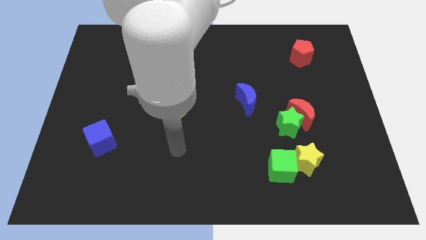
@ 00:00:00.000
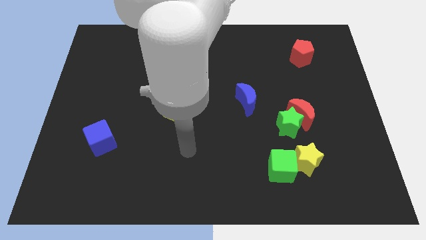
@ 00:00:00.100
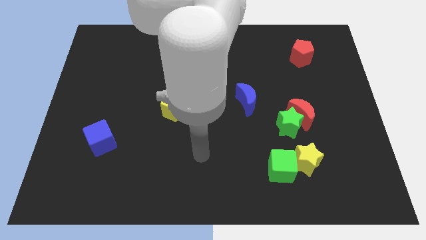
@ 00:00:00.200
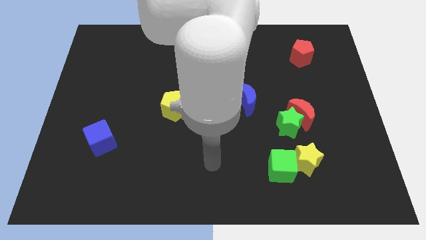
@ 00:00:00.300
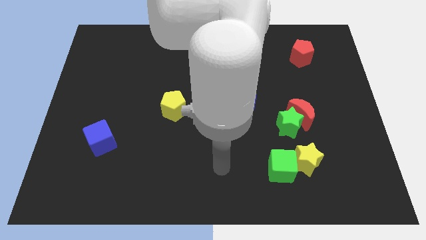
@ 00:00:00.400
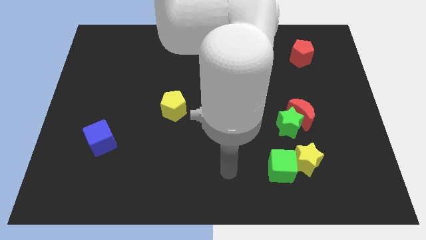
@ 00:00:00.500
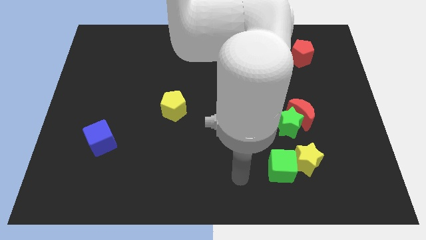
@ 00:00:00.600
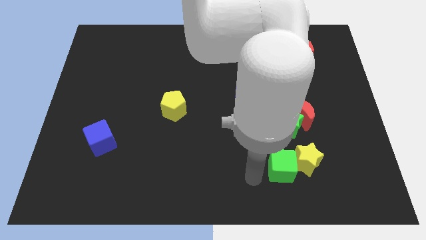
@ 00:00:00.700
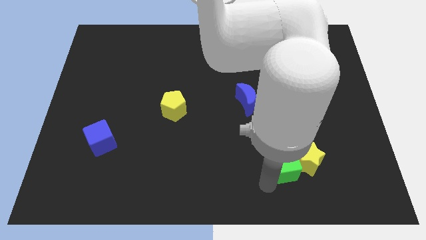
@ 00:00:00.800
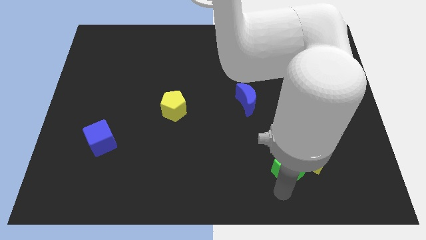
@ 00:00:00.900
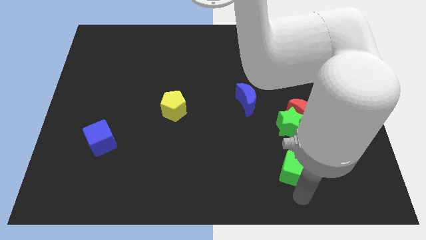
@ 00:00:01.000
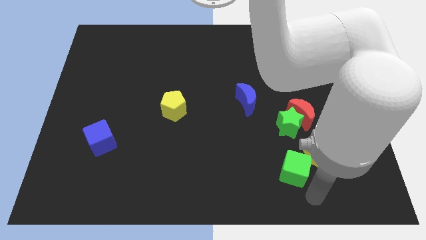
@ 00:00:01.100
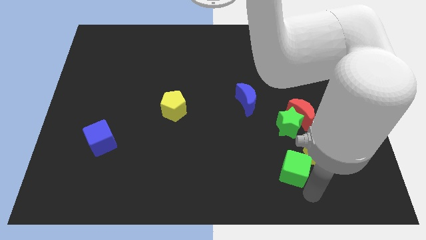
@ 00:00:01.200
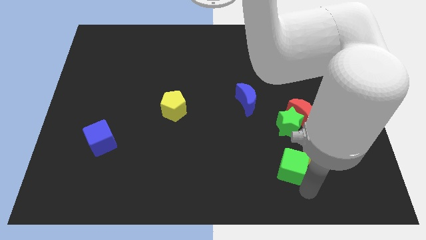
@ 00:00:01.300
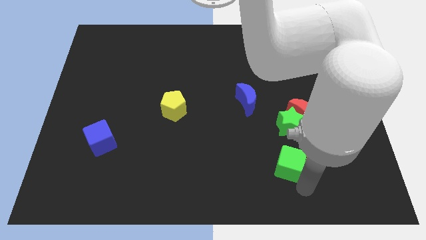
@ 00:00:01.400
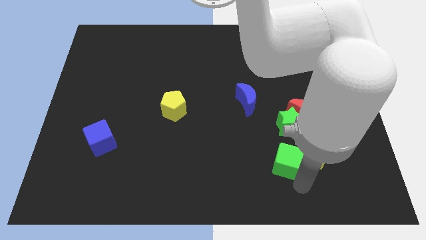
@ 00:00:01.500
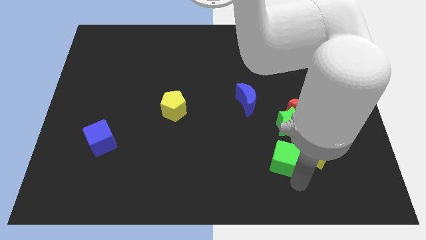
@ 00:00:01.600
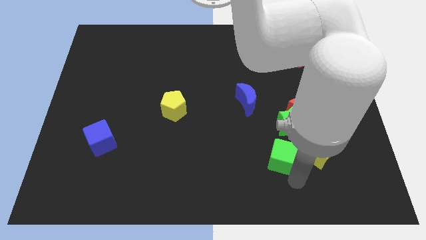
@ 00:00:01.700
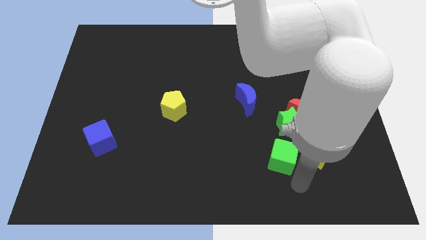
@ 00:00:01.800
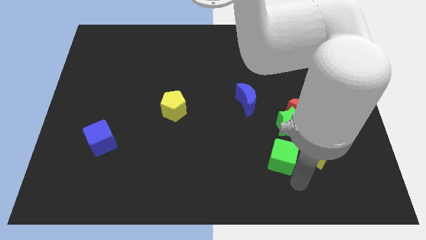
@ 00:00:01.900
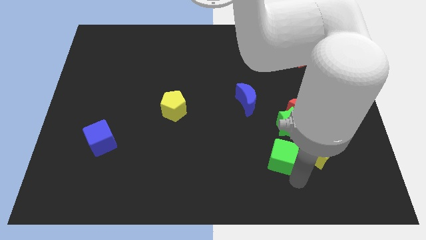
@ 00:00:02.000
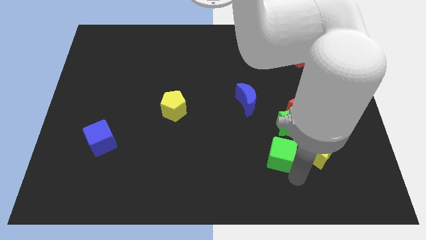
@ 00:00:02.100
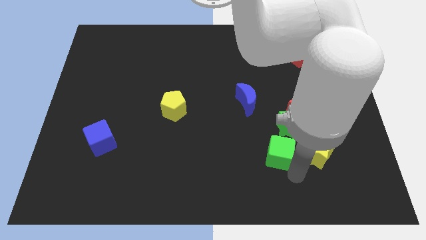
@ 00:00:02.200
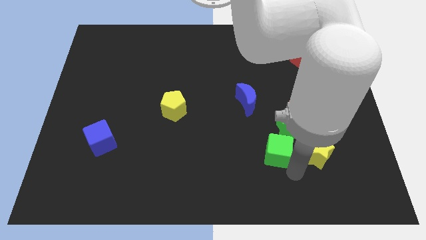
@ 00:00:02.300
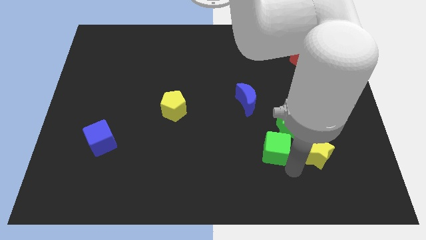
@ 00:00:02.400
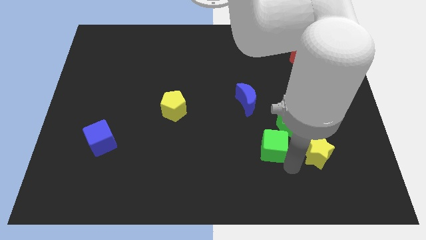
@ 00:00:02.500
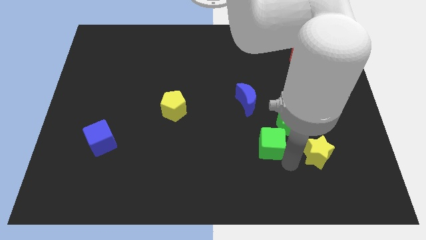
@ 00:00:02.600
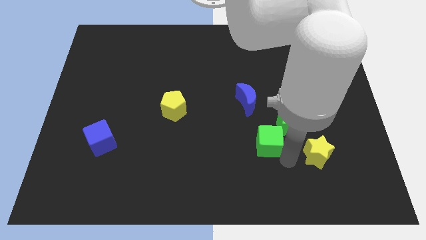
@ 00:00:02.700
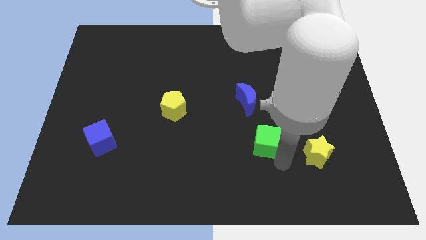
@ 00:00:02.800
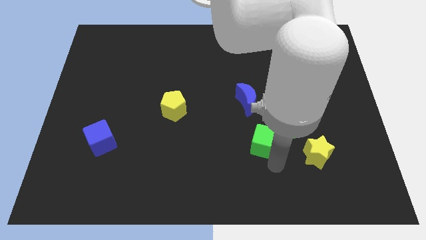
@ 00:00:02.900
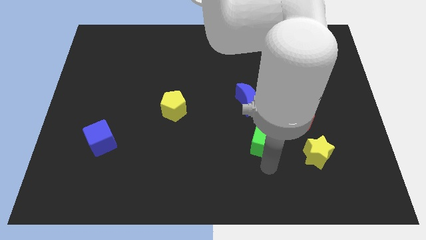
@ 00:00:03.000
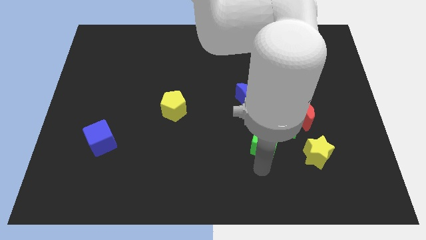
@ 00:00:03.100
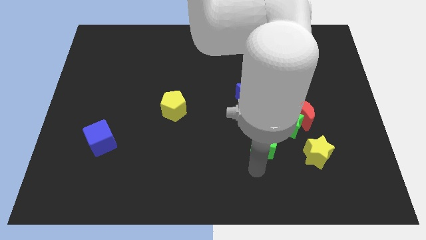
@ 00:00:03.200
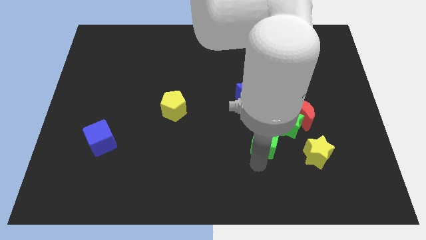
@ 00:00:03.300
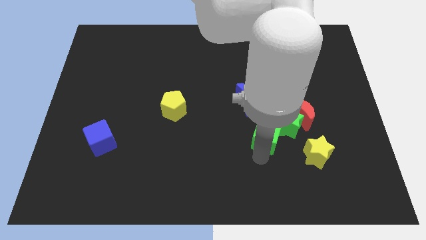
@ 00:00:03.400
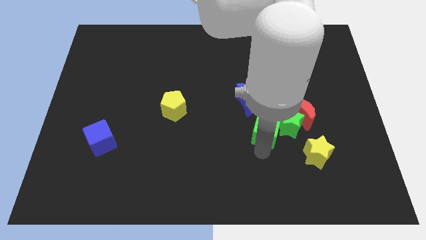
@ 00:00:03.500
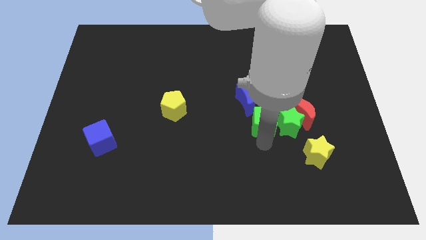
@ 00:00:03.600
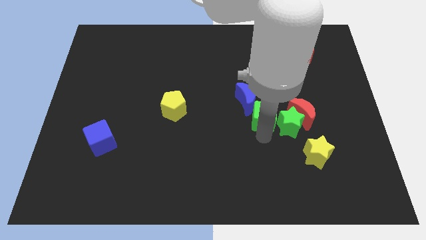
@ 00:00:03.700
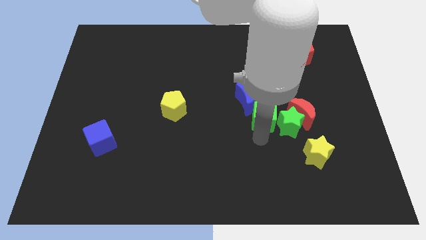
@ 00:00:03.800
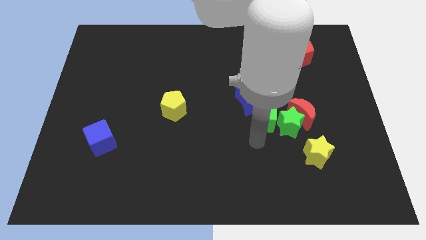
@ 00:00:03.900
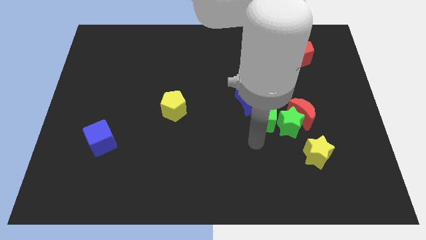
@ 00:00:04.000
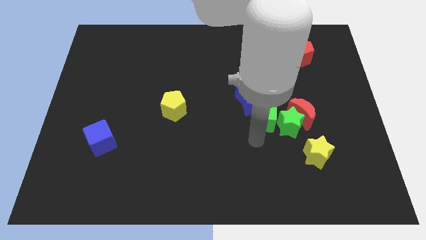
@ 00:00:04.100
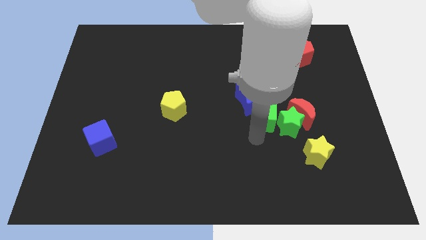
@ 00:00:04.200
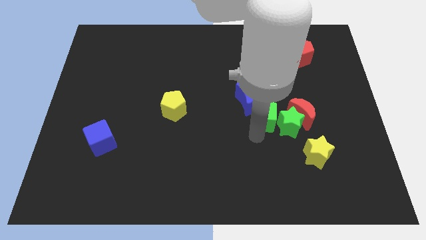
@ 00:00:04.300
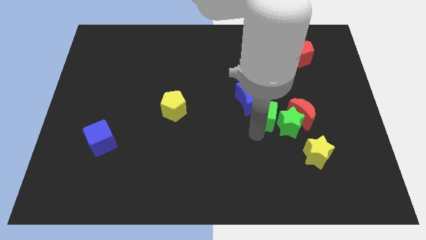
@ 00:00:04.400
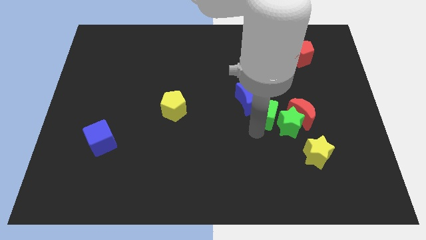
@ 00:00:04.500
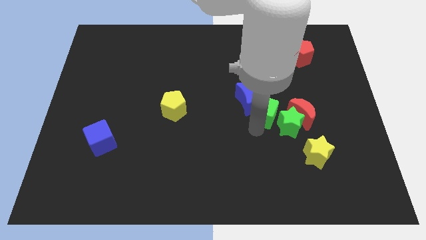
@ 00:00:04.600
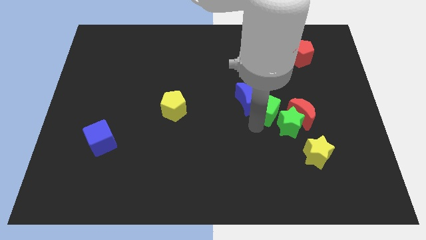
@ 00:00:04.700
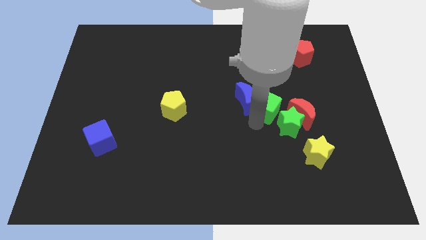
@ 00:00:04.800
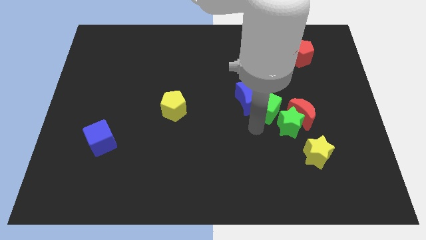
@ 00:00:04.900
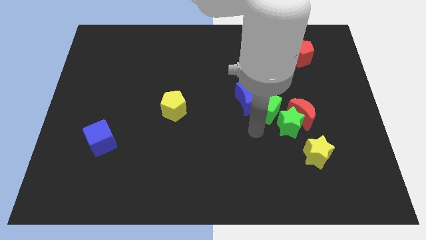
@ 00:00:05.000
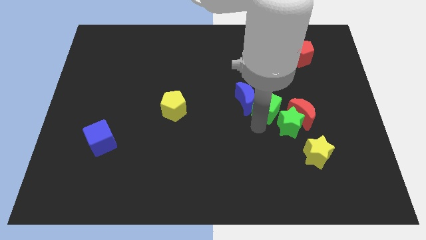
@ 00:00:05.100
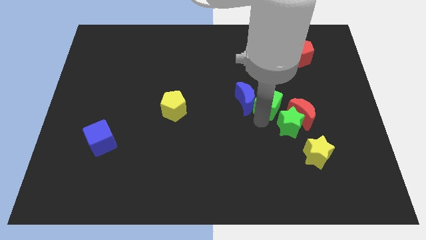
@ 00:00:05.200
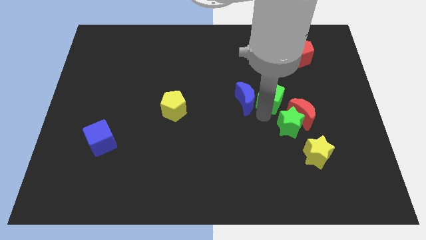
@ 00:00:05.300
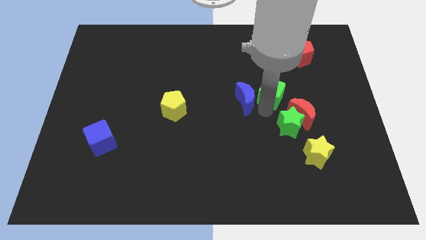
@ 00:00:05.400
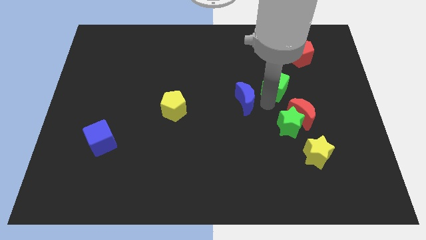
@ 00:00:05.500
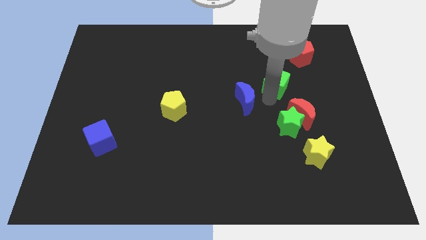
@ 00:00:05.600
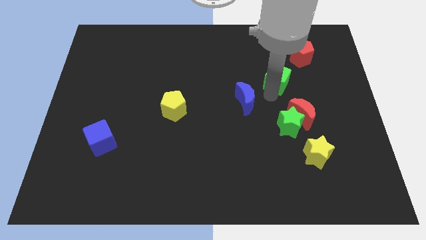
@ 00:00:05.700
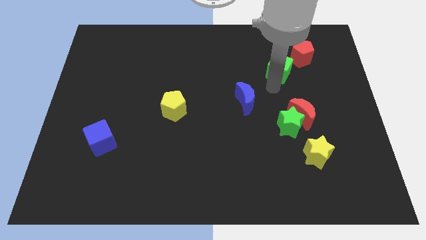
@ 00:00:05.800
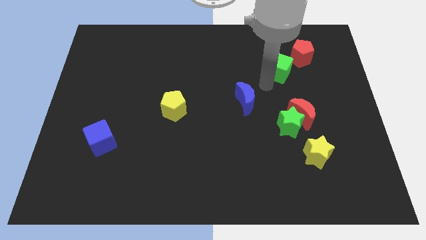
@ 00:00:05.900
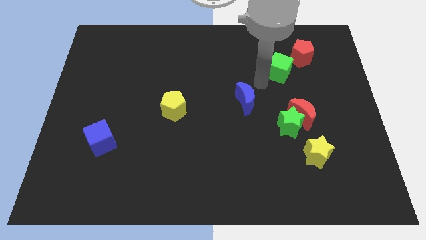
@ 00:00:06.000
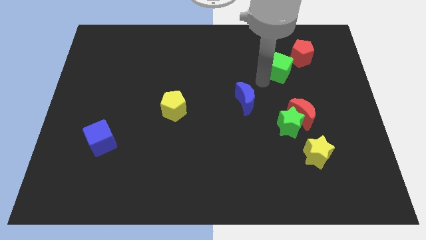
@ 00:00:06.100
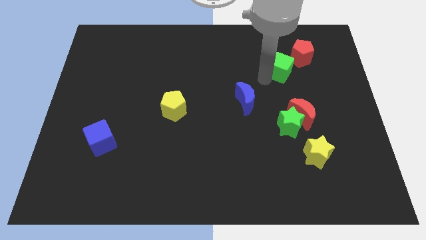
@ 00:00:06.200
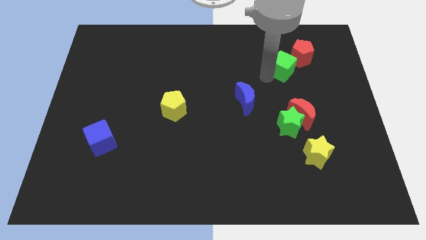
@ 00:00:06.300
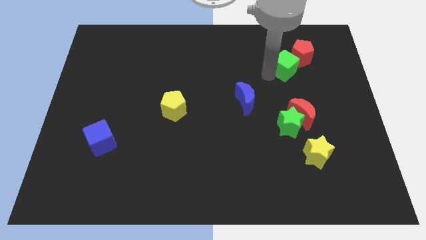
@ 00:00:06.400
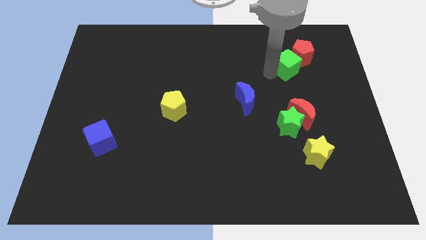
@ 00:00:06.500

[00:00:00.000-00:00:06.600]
push the green cube next to the red pentagon
